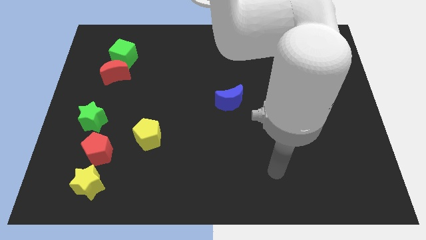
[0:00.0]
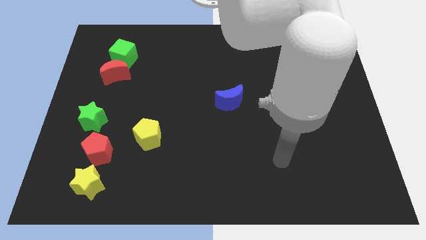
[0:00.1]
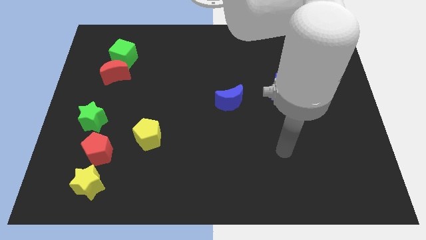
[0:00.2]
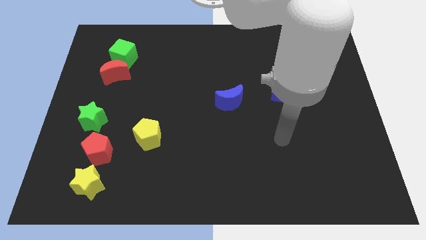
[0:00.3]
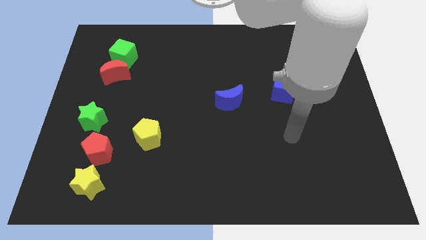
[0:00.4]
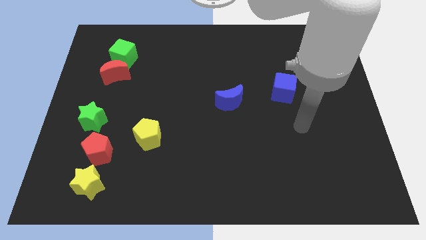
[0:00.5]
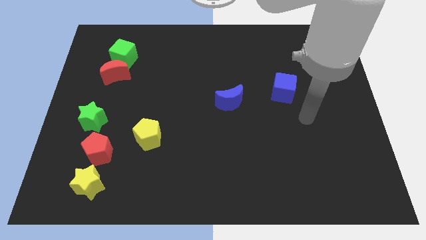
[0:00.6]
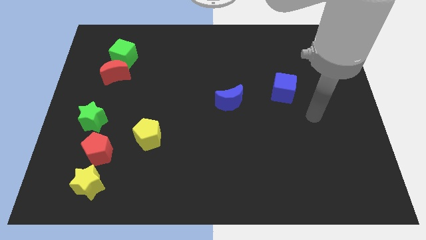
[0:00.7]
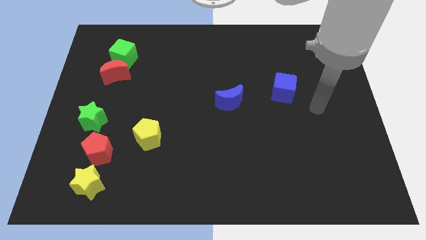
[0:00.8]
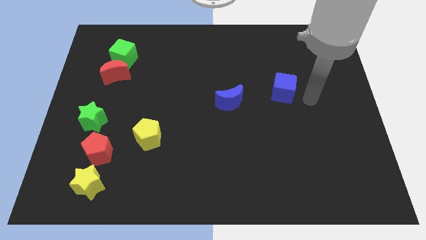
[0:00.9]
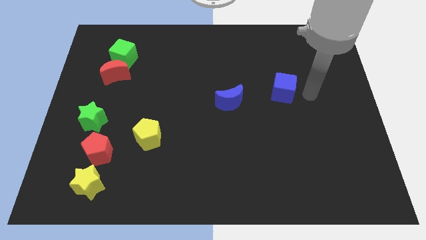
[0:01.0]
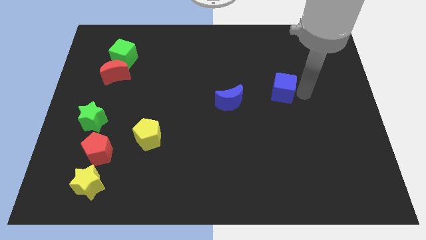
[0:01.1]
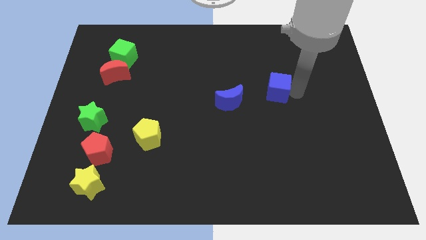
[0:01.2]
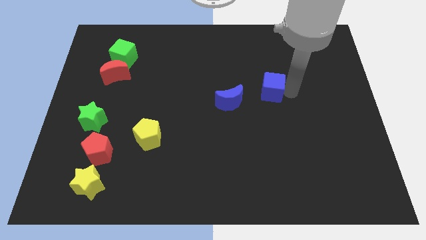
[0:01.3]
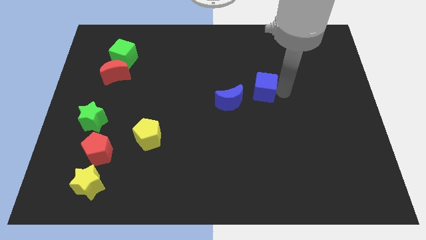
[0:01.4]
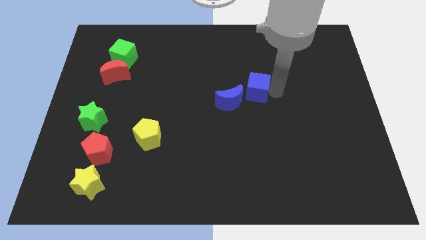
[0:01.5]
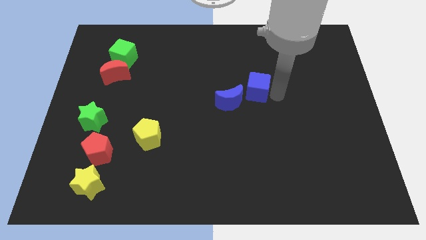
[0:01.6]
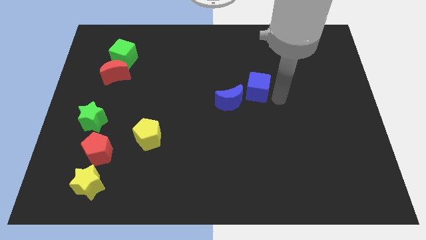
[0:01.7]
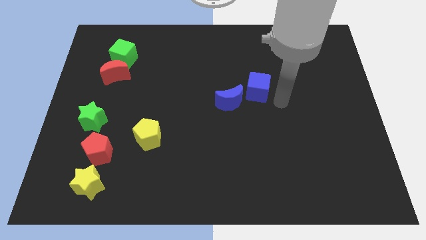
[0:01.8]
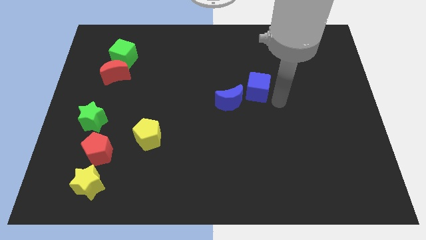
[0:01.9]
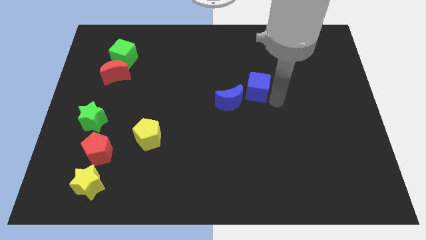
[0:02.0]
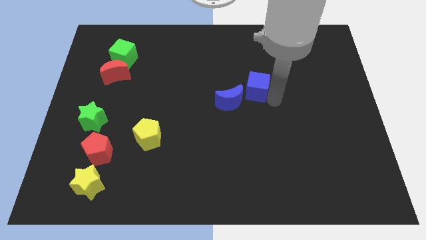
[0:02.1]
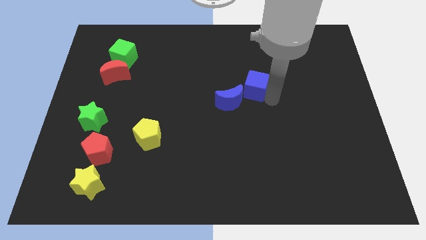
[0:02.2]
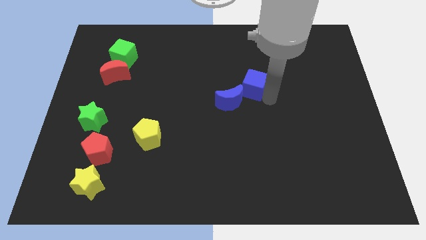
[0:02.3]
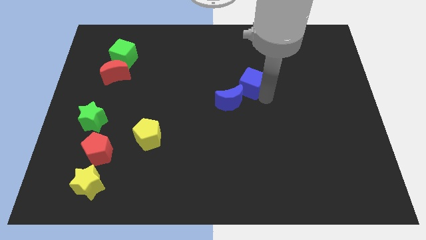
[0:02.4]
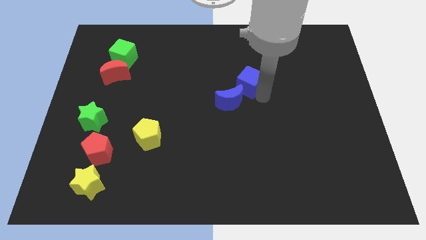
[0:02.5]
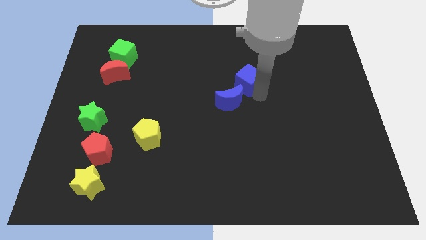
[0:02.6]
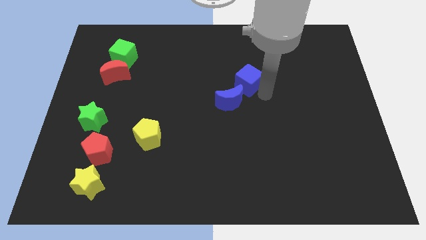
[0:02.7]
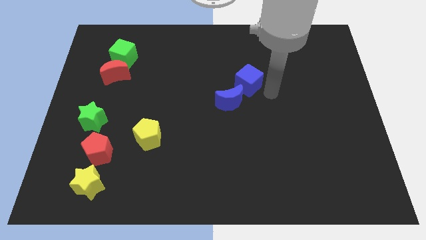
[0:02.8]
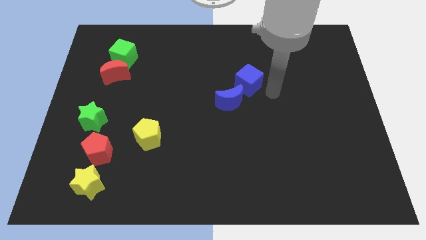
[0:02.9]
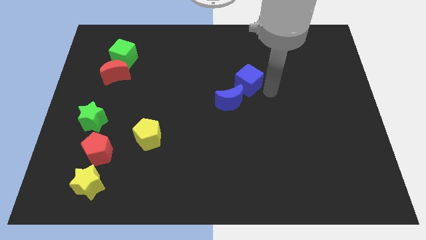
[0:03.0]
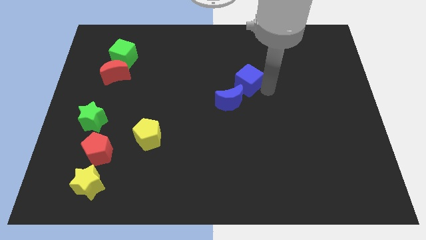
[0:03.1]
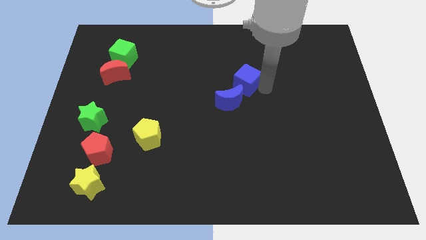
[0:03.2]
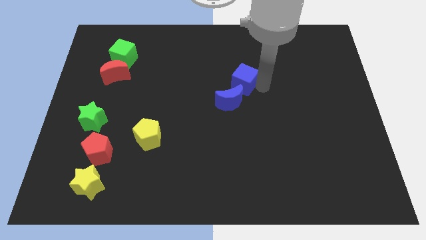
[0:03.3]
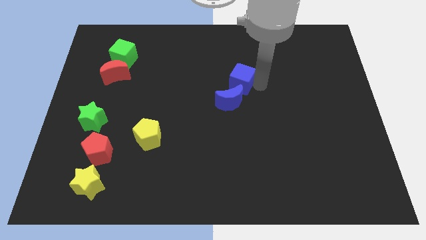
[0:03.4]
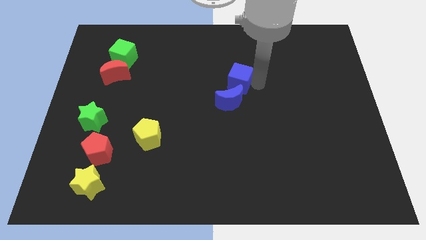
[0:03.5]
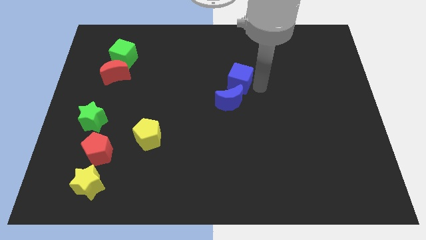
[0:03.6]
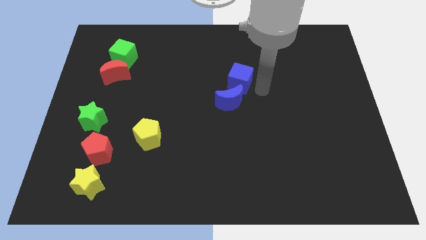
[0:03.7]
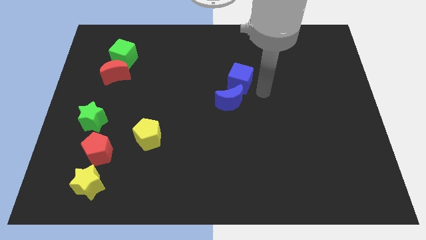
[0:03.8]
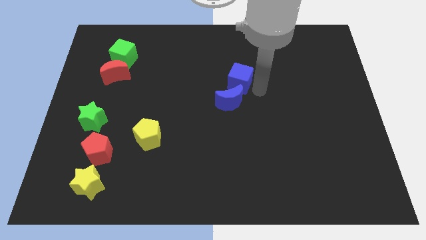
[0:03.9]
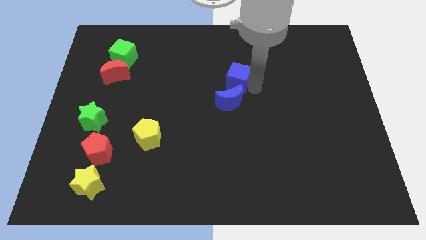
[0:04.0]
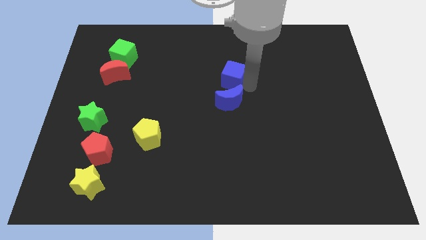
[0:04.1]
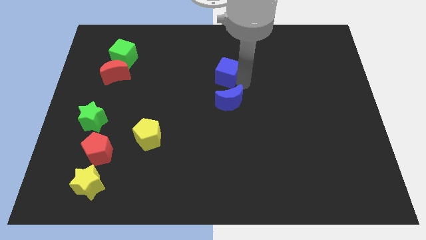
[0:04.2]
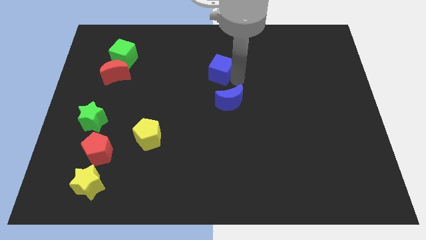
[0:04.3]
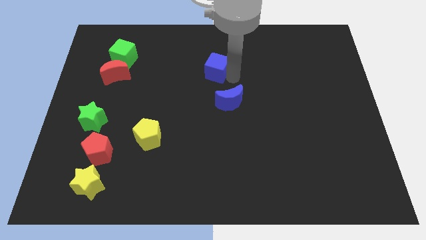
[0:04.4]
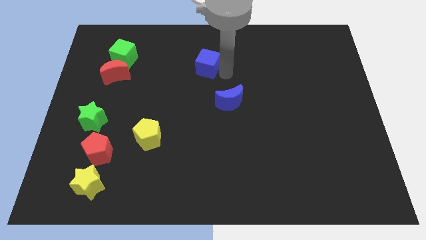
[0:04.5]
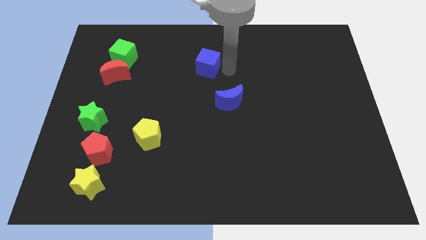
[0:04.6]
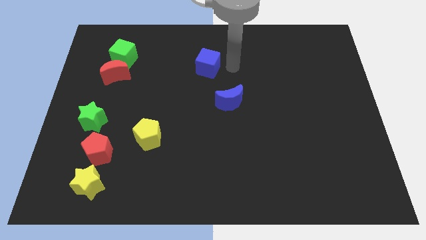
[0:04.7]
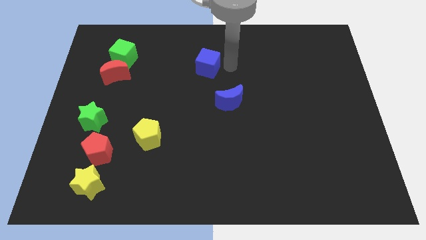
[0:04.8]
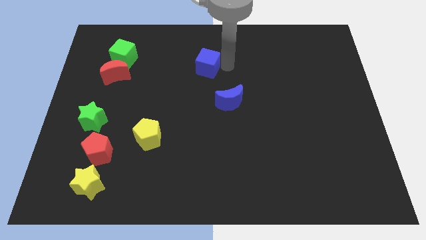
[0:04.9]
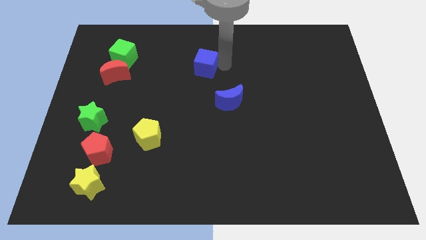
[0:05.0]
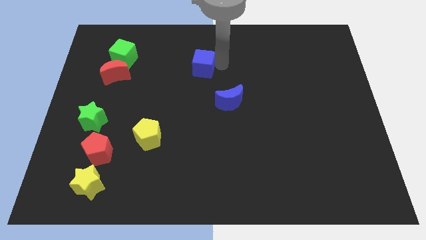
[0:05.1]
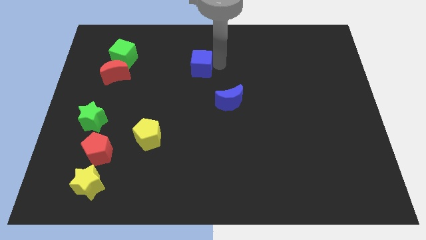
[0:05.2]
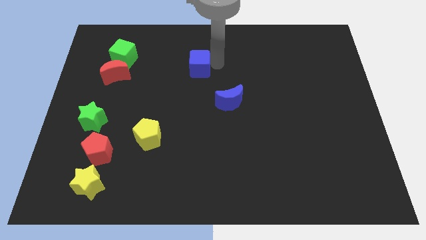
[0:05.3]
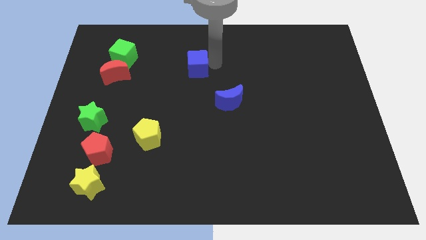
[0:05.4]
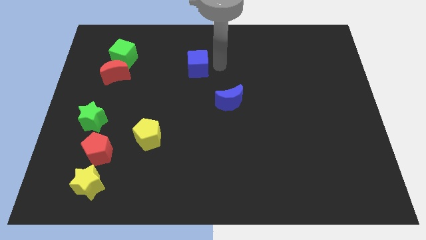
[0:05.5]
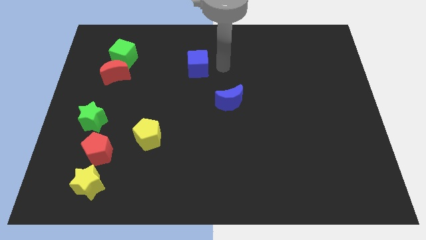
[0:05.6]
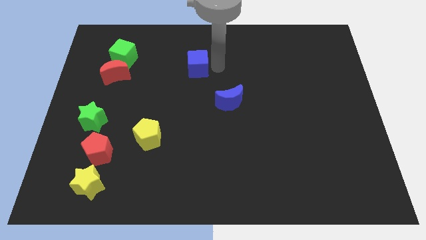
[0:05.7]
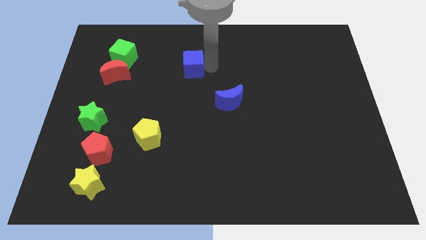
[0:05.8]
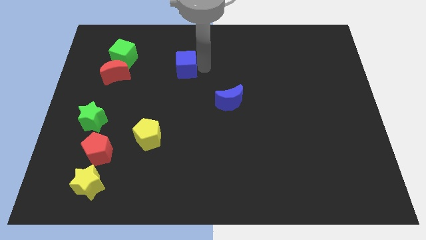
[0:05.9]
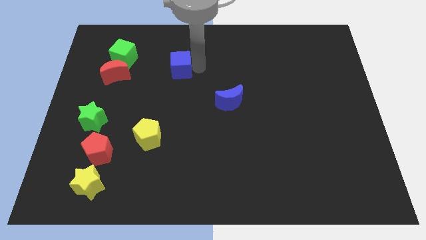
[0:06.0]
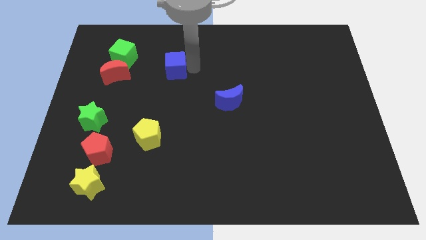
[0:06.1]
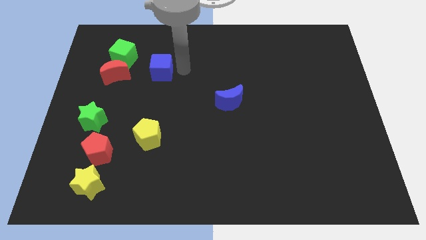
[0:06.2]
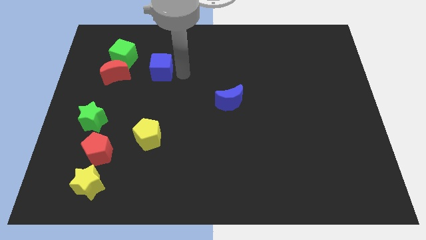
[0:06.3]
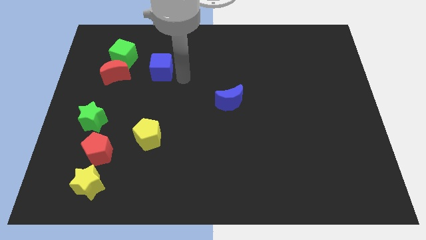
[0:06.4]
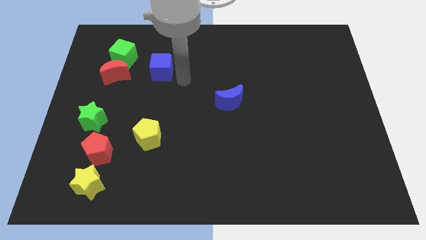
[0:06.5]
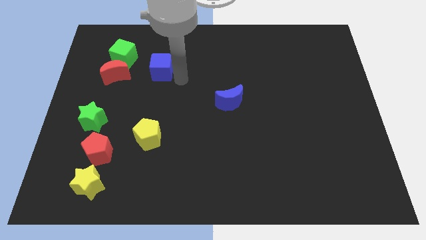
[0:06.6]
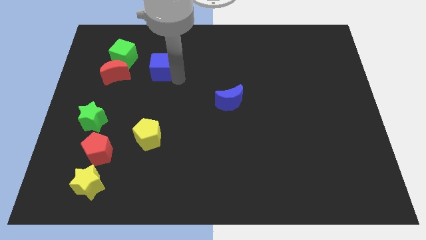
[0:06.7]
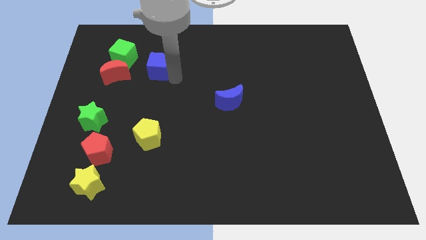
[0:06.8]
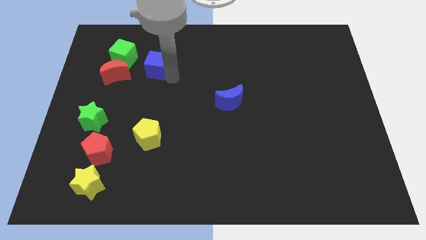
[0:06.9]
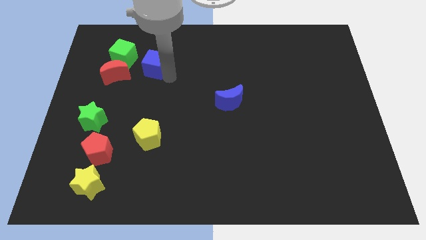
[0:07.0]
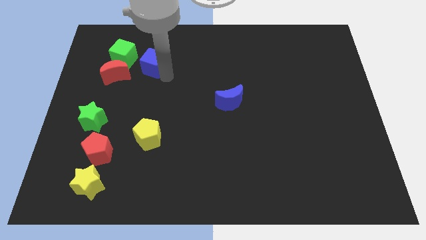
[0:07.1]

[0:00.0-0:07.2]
push the blue cube to the top right of the red moon
